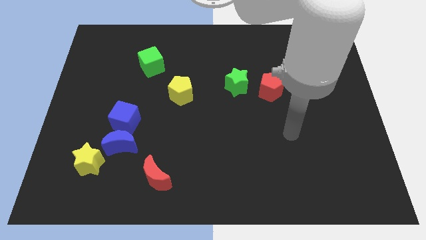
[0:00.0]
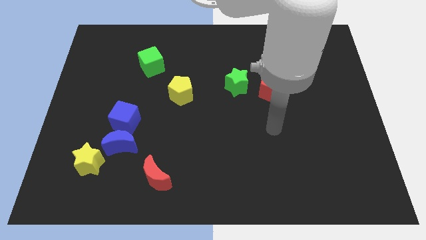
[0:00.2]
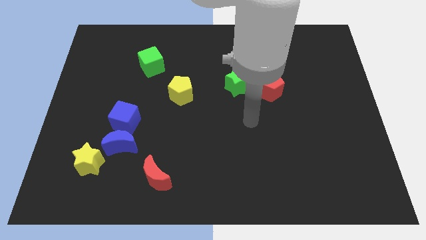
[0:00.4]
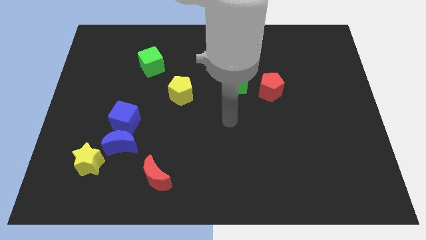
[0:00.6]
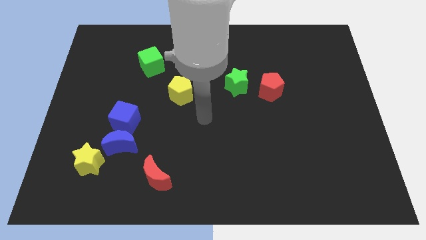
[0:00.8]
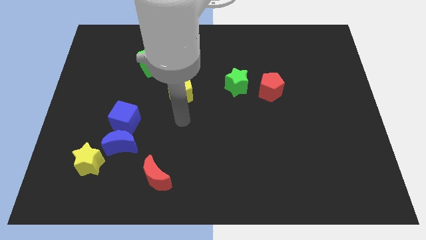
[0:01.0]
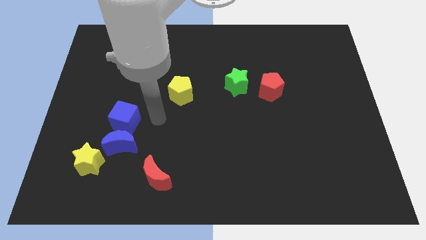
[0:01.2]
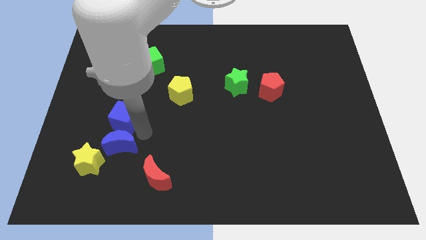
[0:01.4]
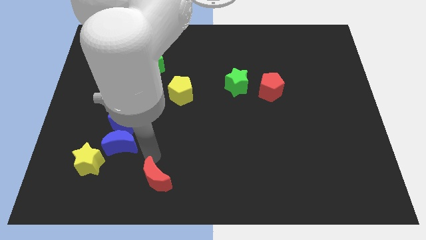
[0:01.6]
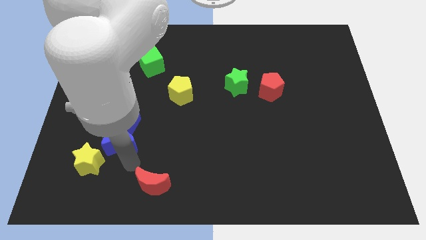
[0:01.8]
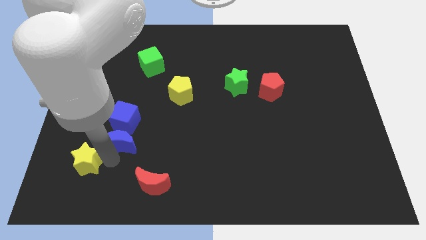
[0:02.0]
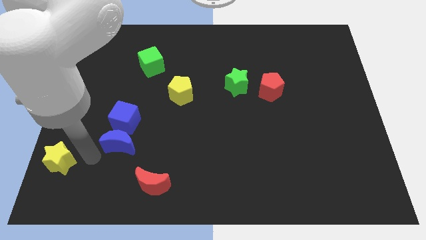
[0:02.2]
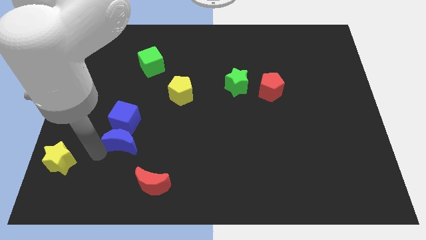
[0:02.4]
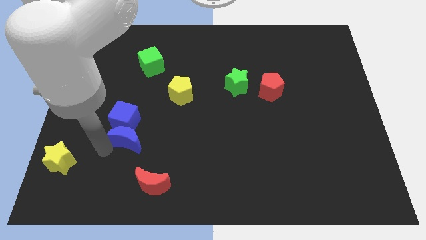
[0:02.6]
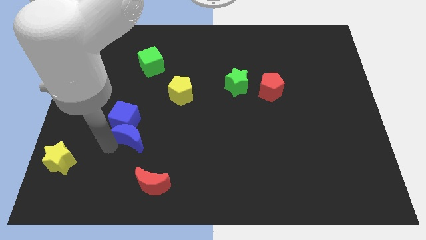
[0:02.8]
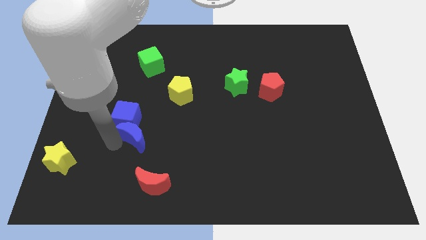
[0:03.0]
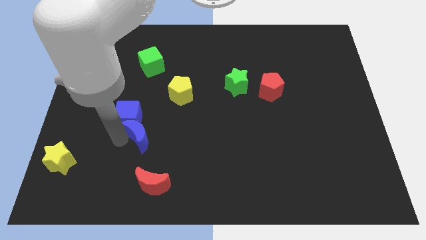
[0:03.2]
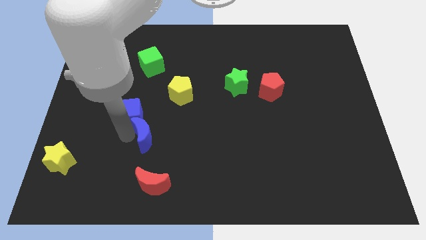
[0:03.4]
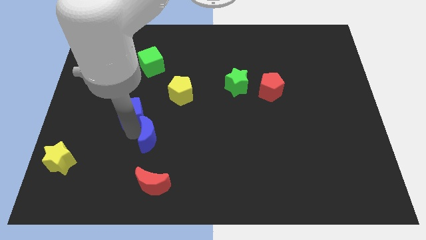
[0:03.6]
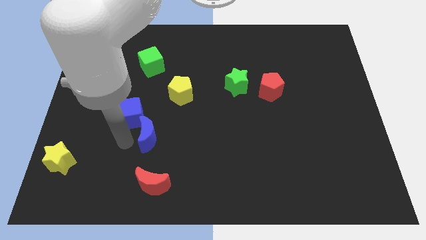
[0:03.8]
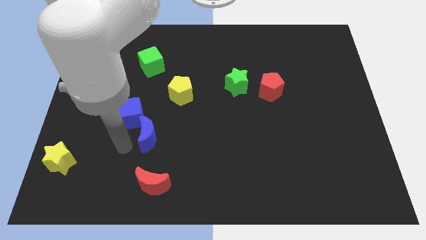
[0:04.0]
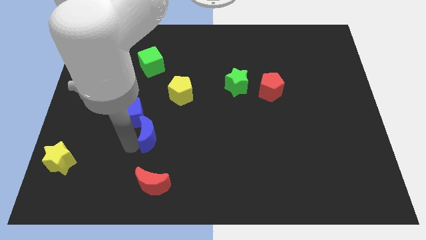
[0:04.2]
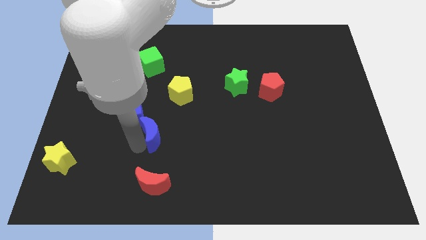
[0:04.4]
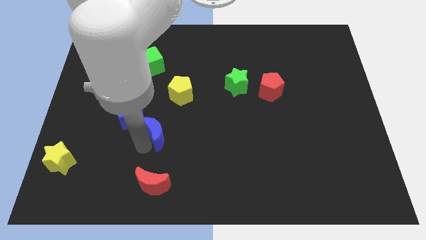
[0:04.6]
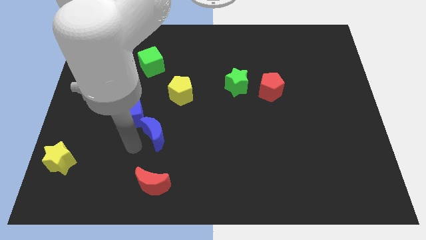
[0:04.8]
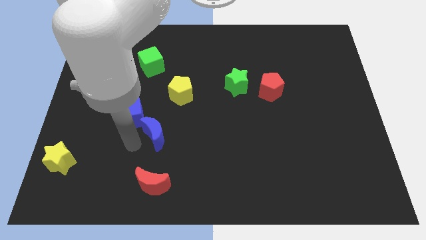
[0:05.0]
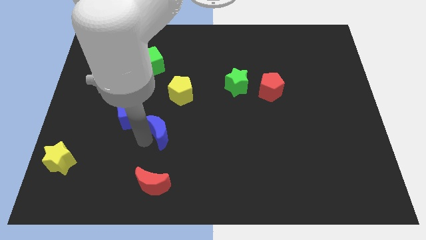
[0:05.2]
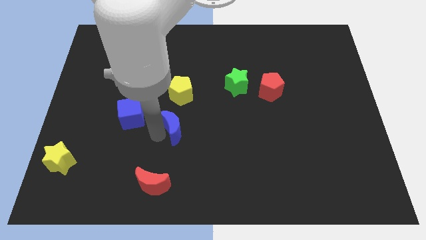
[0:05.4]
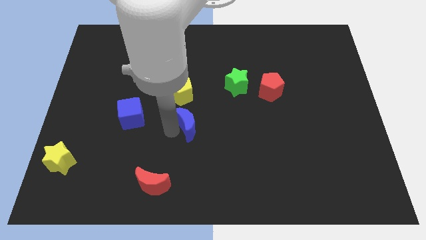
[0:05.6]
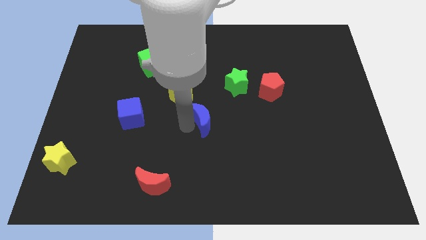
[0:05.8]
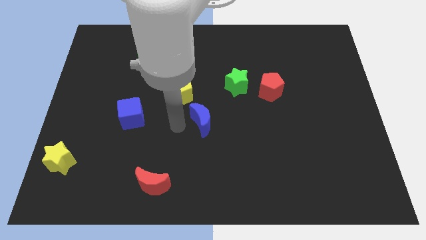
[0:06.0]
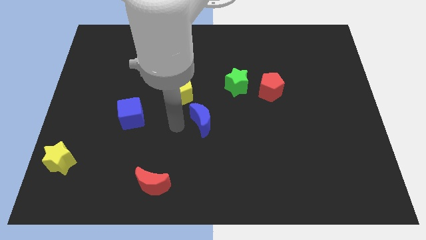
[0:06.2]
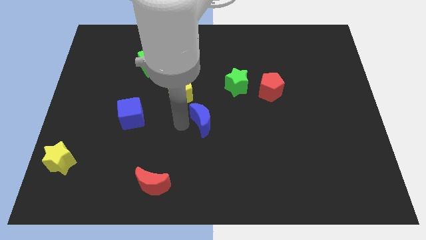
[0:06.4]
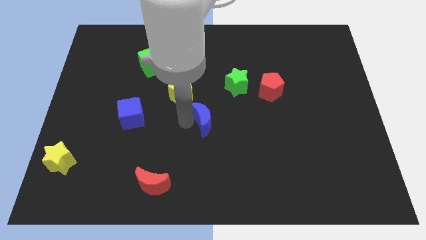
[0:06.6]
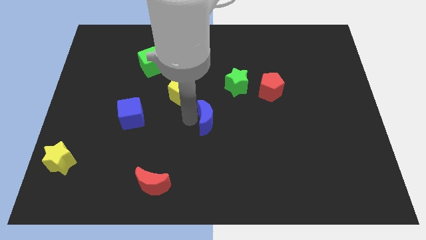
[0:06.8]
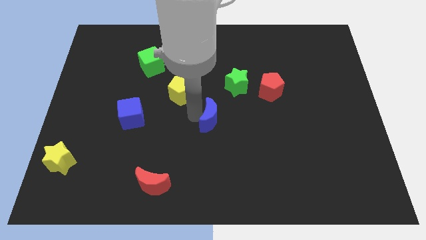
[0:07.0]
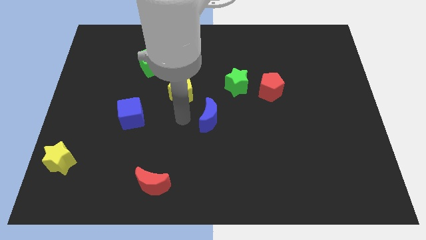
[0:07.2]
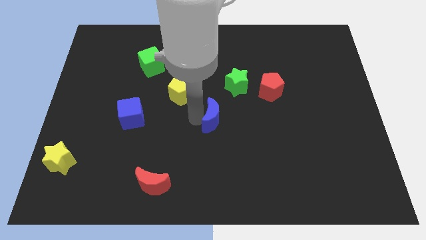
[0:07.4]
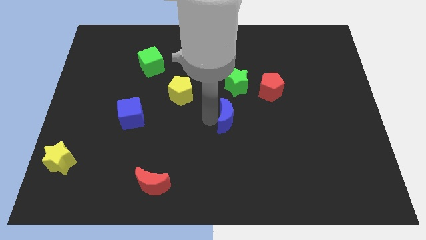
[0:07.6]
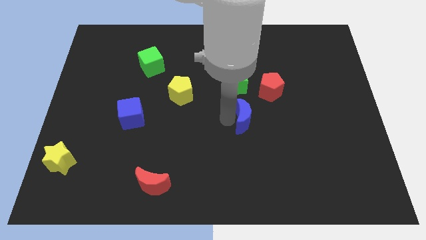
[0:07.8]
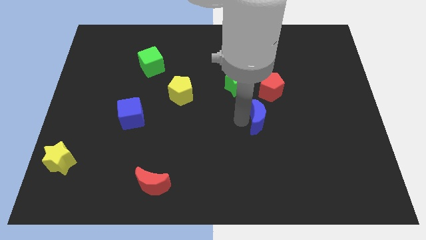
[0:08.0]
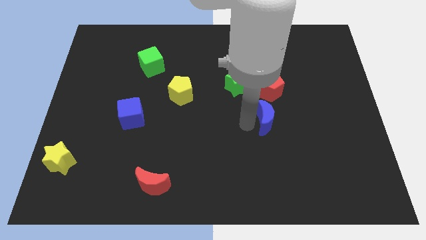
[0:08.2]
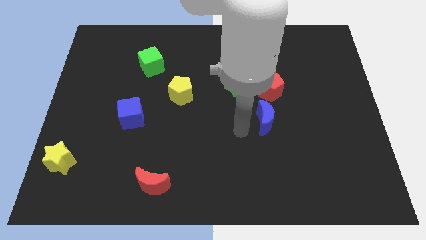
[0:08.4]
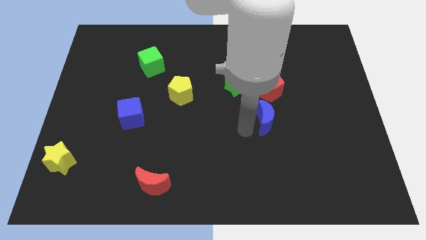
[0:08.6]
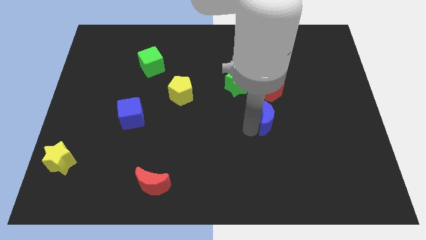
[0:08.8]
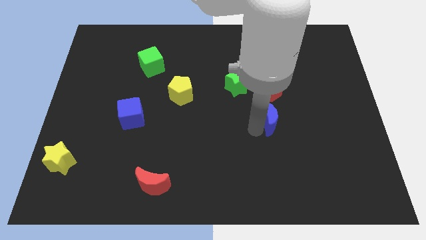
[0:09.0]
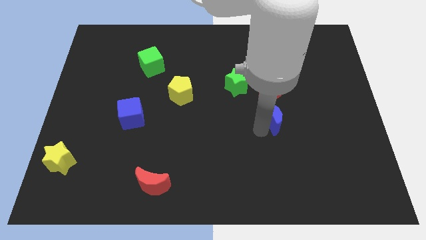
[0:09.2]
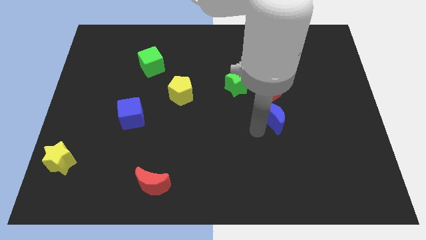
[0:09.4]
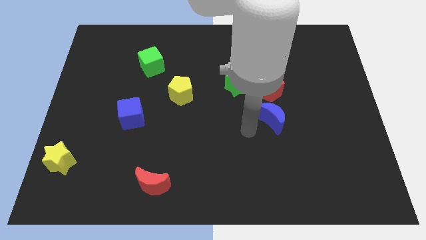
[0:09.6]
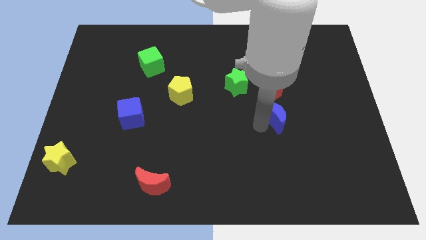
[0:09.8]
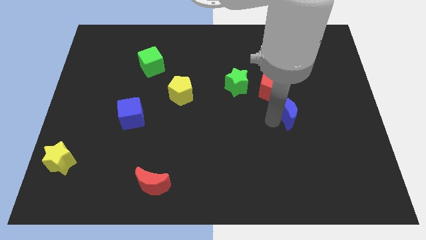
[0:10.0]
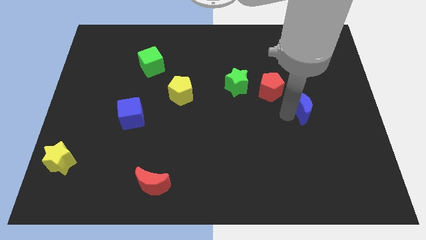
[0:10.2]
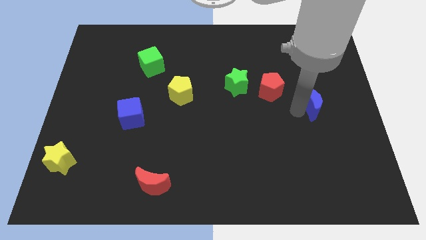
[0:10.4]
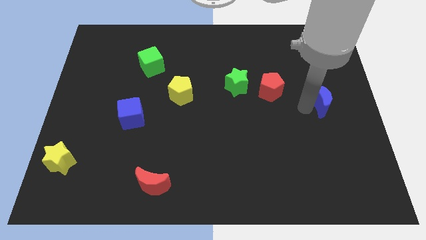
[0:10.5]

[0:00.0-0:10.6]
slide the blue moon to the center right
